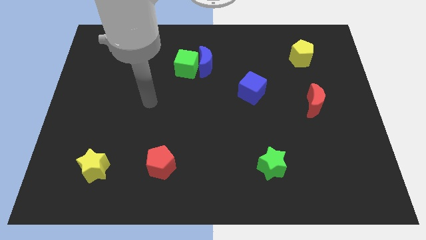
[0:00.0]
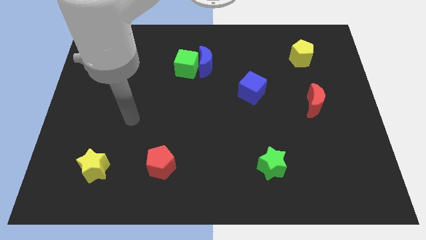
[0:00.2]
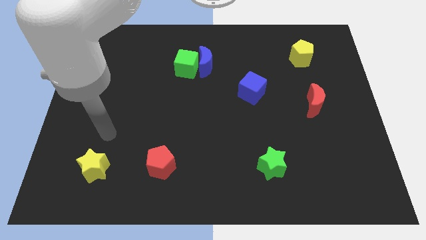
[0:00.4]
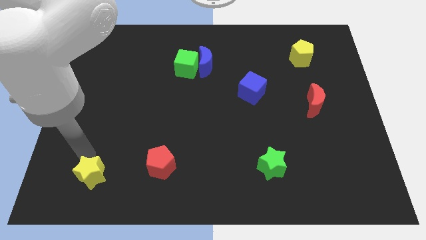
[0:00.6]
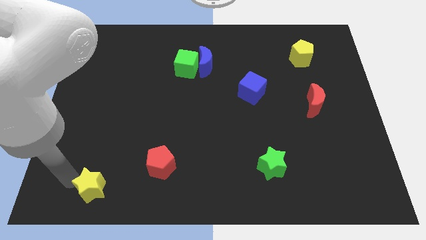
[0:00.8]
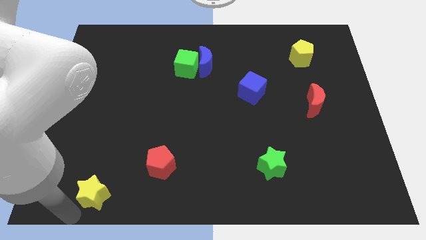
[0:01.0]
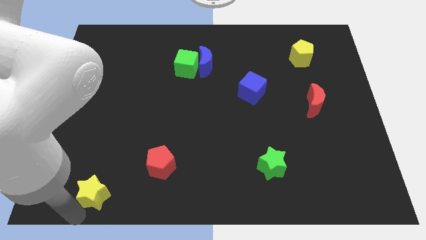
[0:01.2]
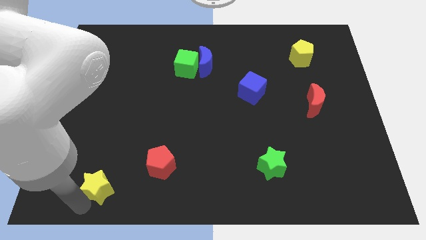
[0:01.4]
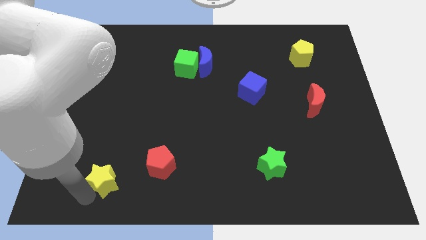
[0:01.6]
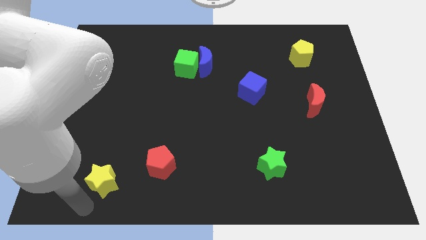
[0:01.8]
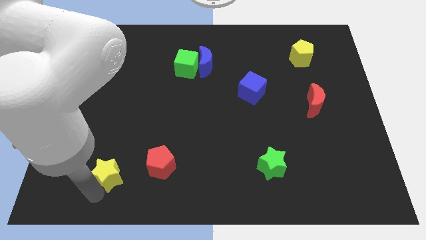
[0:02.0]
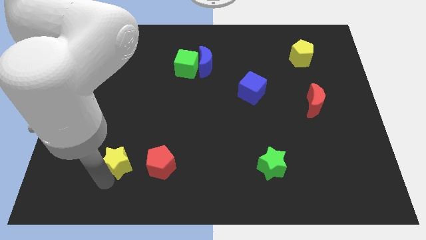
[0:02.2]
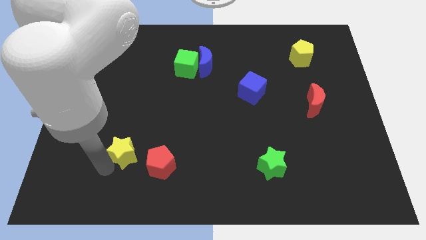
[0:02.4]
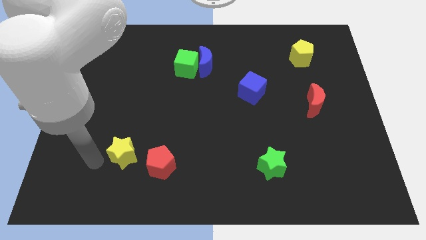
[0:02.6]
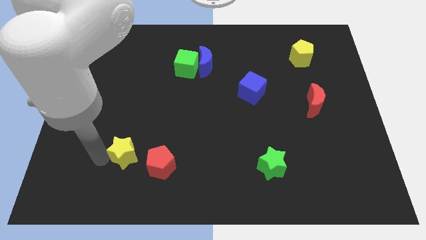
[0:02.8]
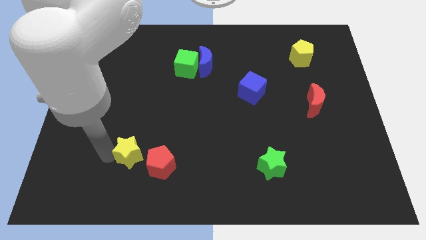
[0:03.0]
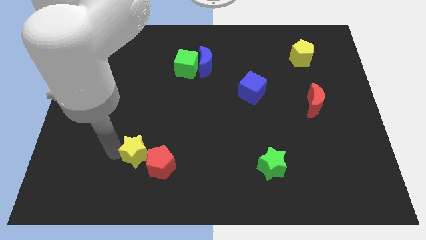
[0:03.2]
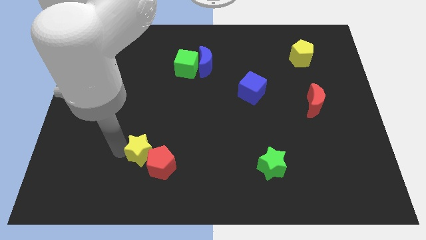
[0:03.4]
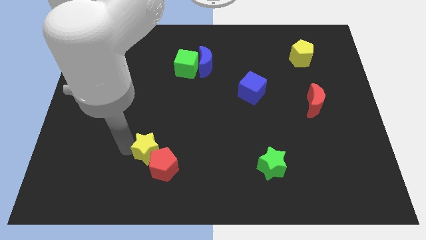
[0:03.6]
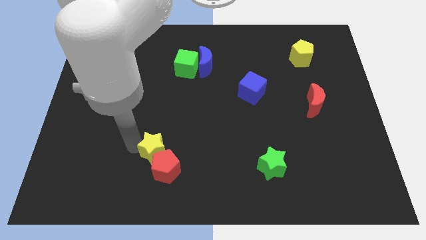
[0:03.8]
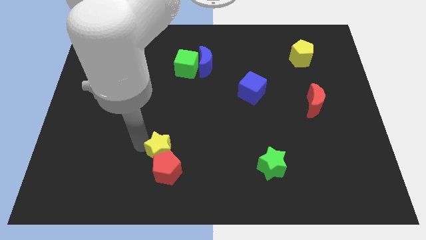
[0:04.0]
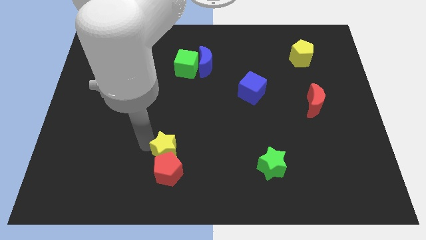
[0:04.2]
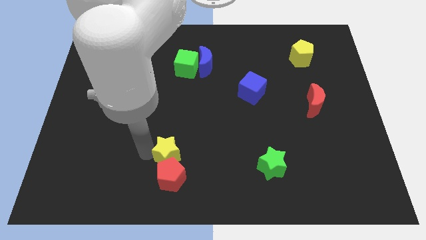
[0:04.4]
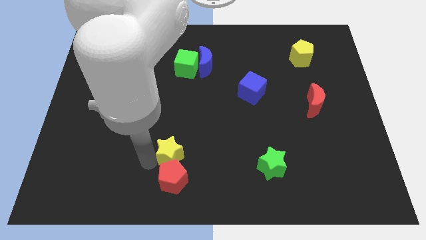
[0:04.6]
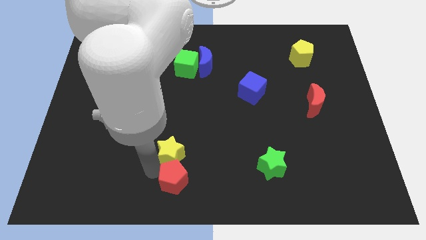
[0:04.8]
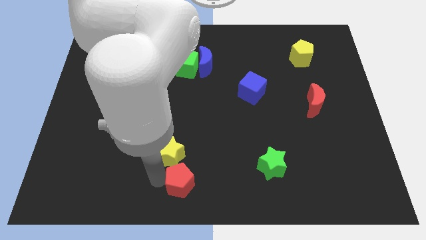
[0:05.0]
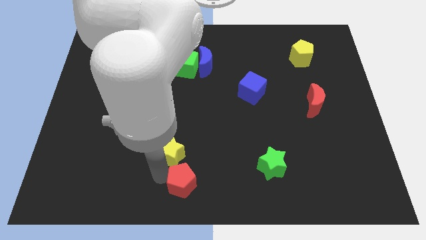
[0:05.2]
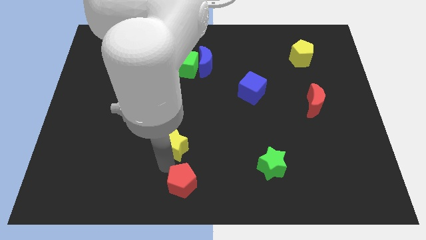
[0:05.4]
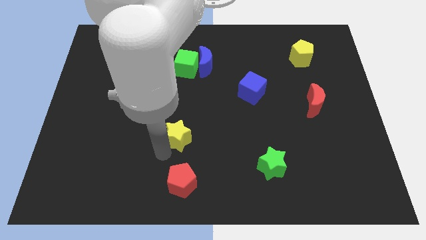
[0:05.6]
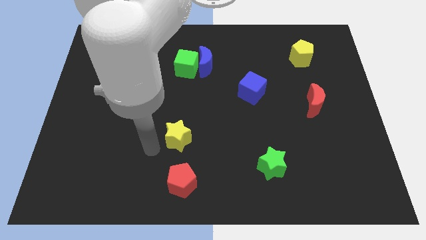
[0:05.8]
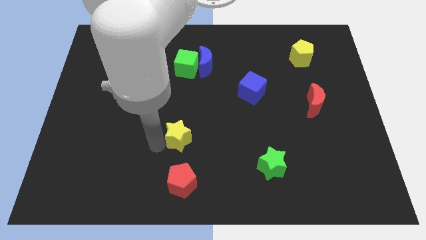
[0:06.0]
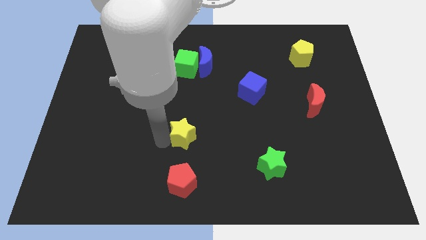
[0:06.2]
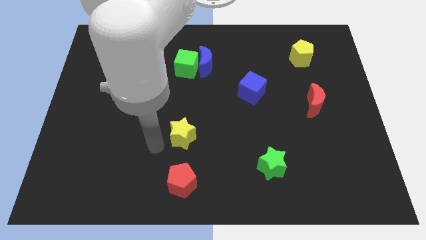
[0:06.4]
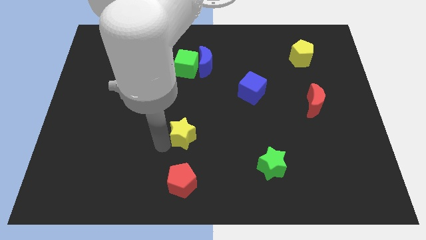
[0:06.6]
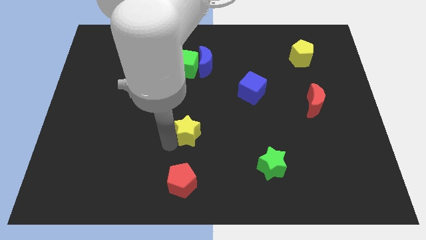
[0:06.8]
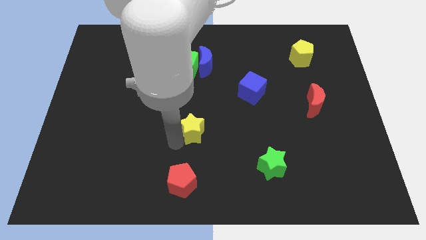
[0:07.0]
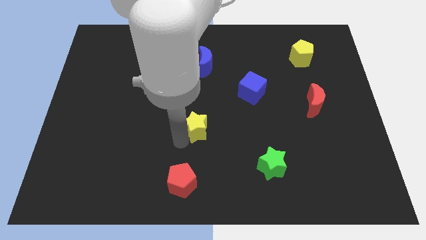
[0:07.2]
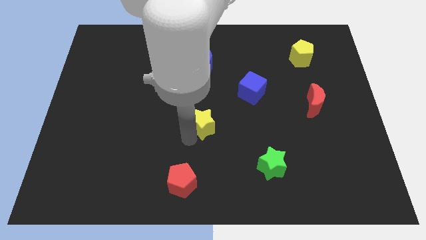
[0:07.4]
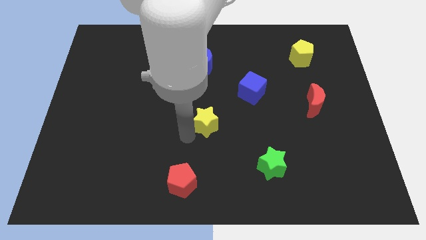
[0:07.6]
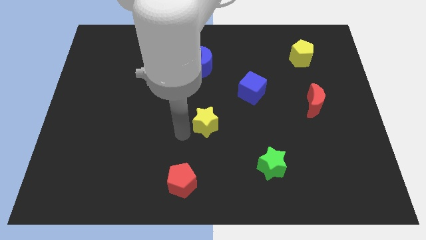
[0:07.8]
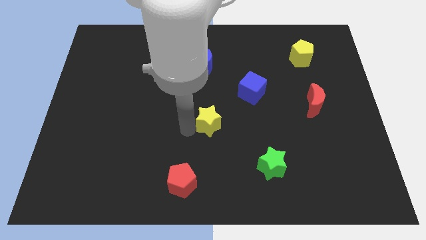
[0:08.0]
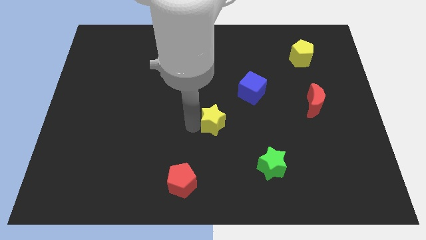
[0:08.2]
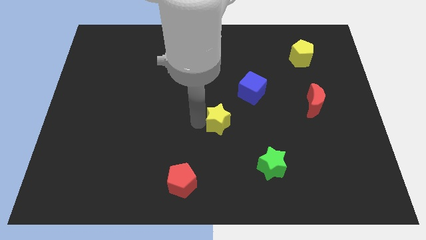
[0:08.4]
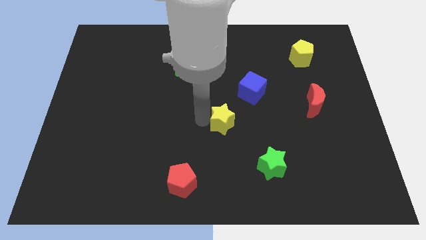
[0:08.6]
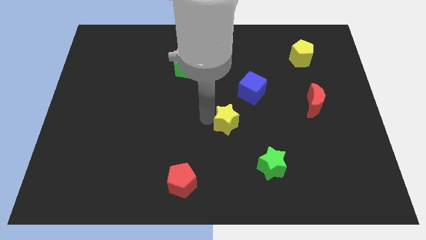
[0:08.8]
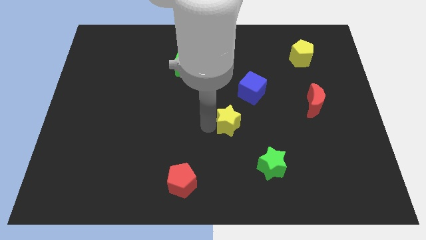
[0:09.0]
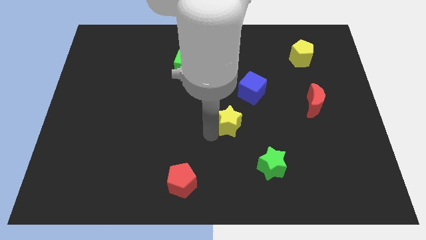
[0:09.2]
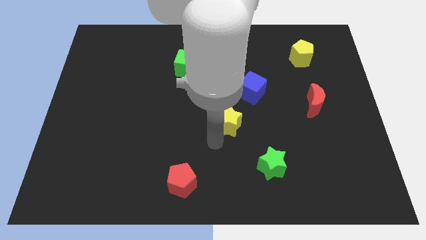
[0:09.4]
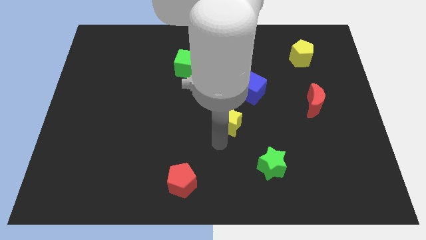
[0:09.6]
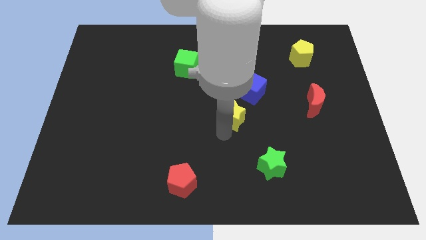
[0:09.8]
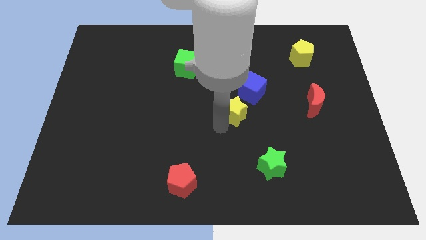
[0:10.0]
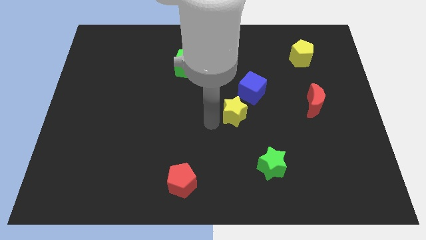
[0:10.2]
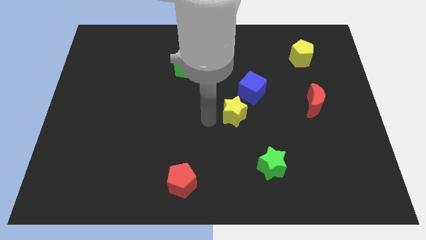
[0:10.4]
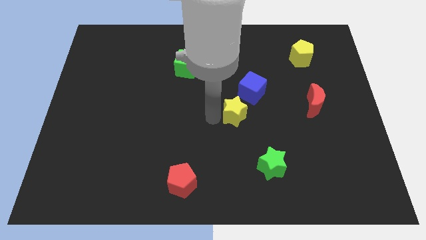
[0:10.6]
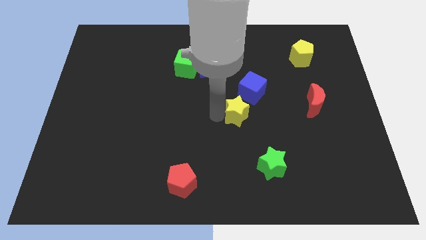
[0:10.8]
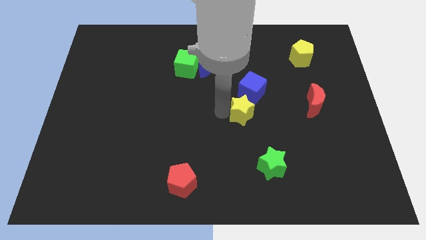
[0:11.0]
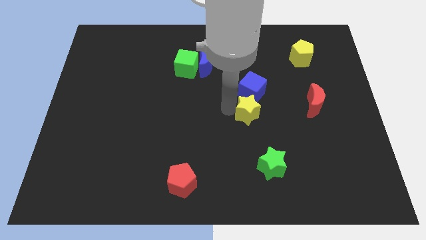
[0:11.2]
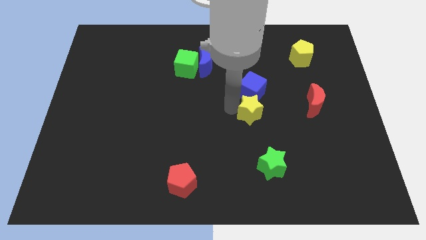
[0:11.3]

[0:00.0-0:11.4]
push the yellow star left of the red moon

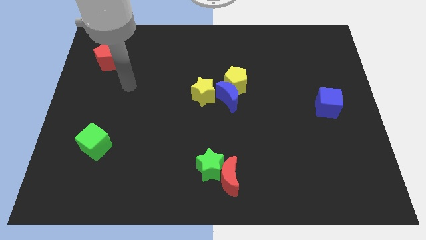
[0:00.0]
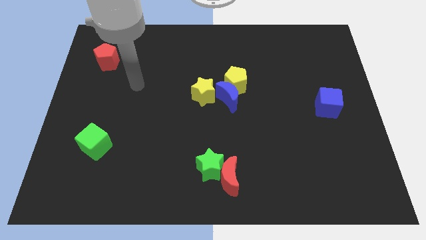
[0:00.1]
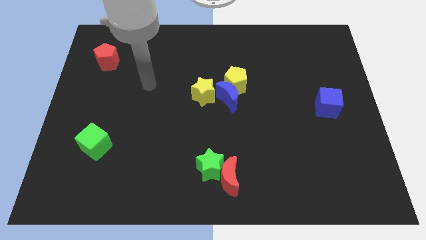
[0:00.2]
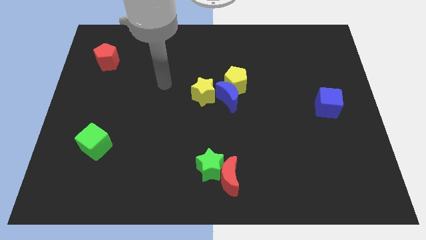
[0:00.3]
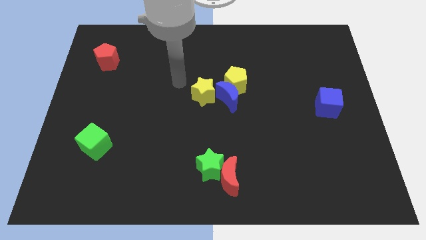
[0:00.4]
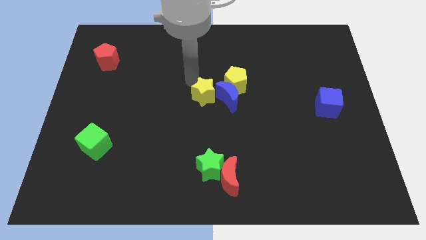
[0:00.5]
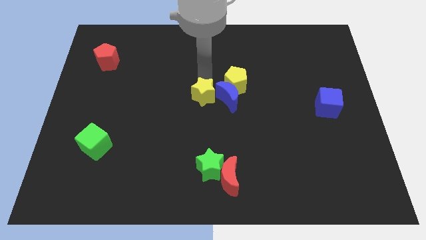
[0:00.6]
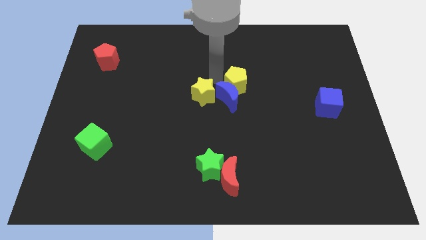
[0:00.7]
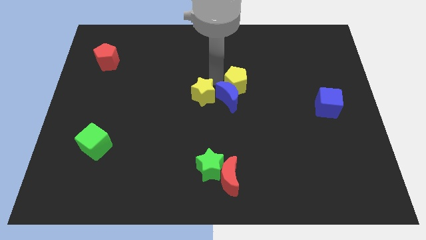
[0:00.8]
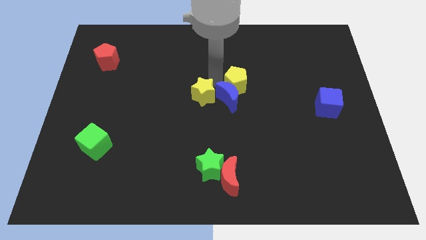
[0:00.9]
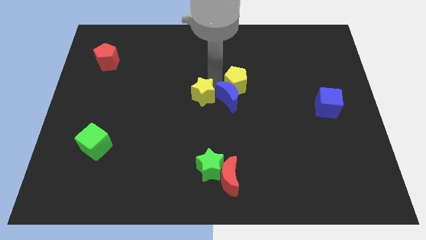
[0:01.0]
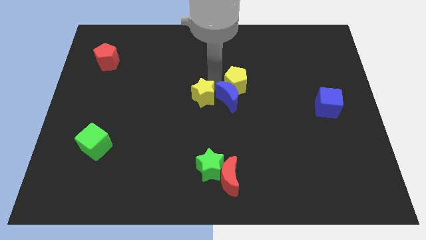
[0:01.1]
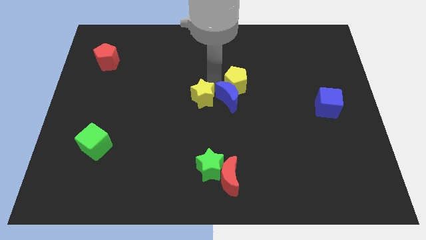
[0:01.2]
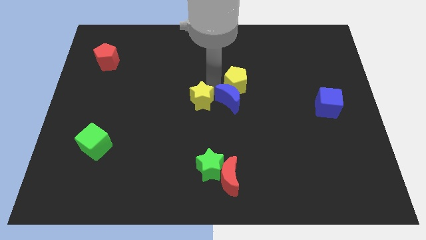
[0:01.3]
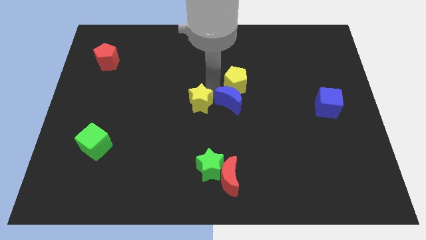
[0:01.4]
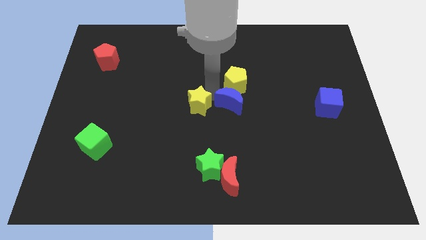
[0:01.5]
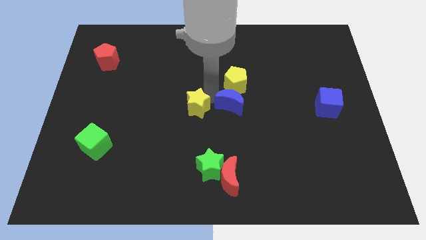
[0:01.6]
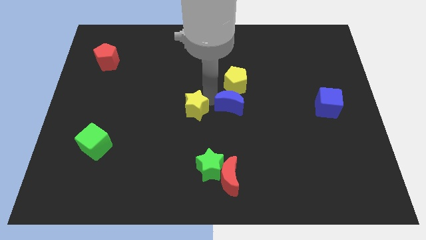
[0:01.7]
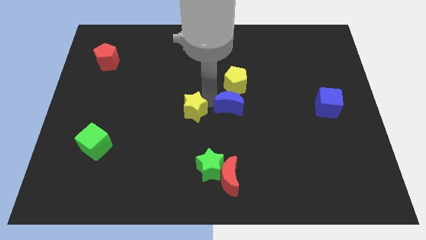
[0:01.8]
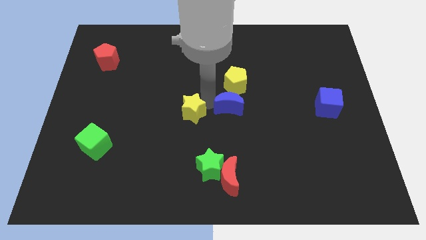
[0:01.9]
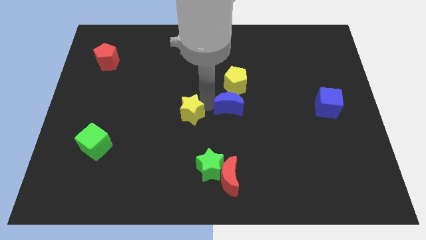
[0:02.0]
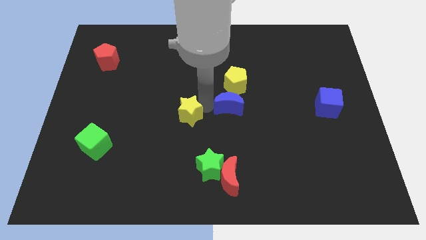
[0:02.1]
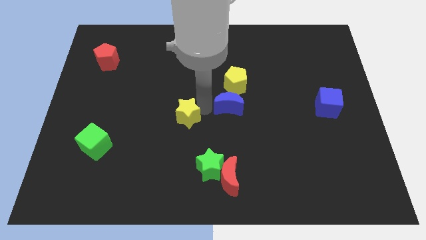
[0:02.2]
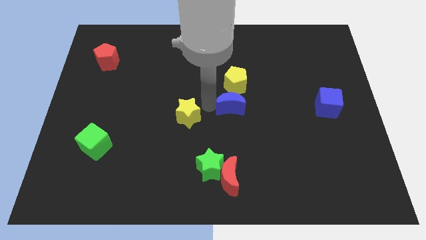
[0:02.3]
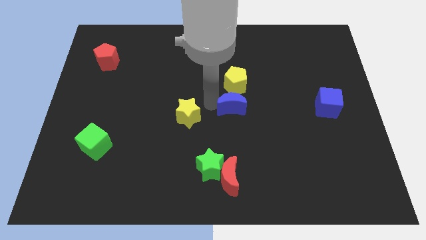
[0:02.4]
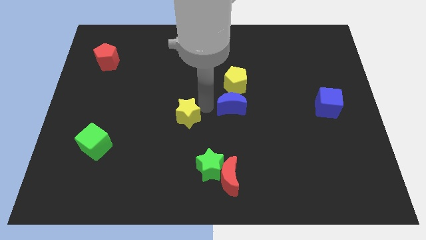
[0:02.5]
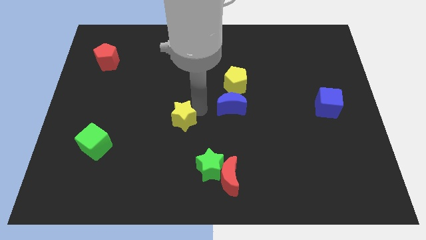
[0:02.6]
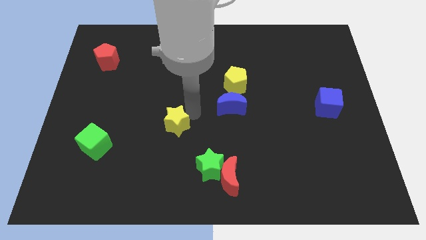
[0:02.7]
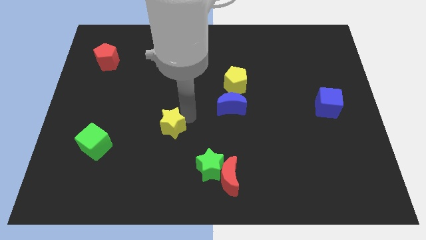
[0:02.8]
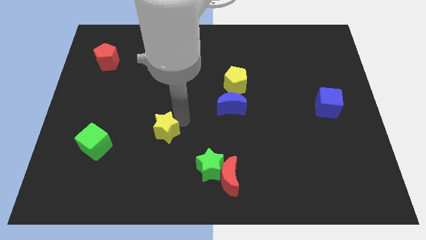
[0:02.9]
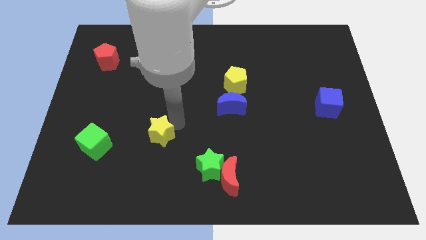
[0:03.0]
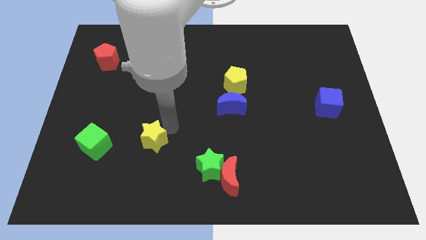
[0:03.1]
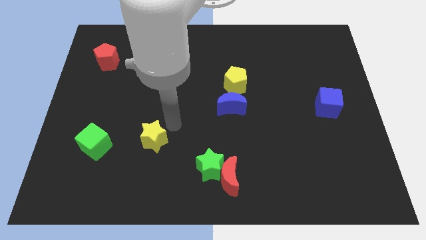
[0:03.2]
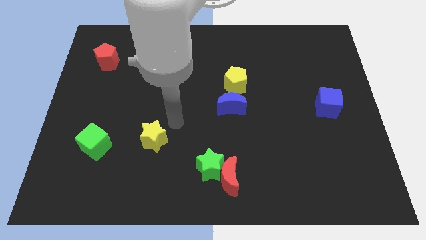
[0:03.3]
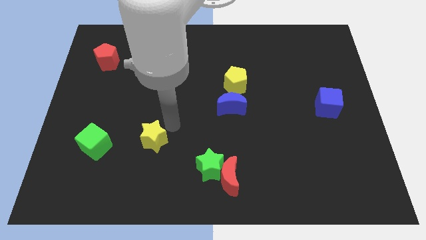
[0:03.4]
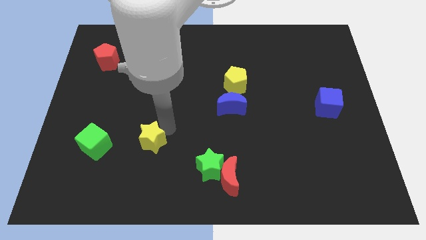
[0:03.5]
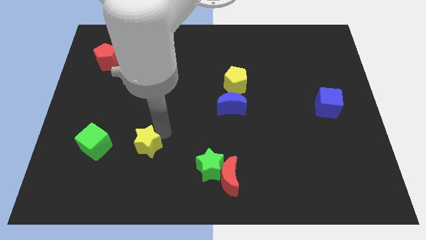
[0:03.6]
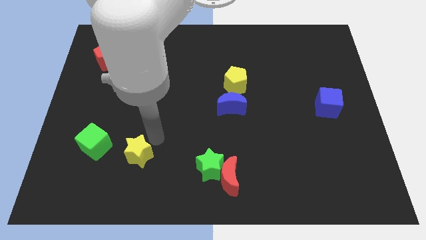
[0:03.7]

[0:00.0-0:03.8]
push the yellow star diagonally down and to the right of the green cube
